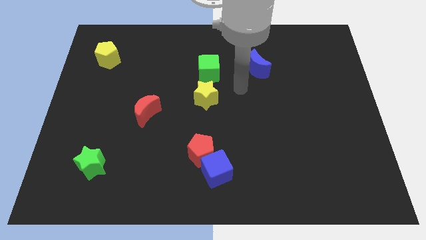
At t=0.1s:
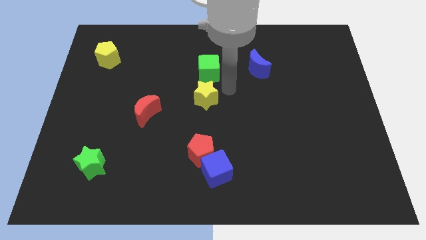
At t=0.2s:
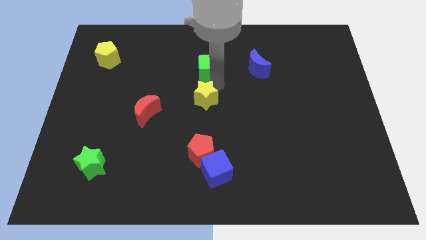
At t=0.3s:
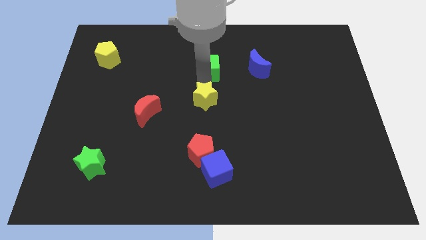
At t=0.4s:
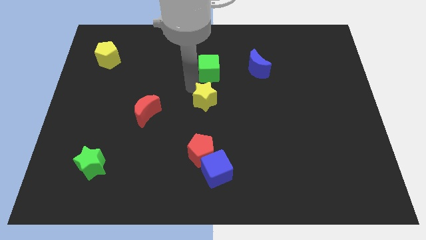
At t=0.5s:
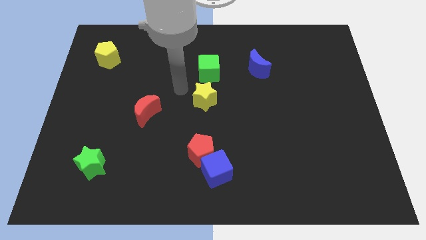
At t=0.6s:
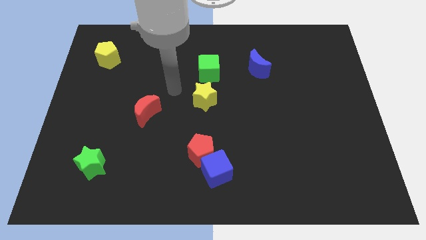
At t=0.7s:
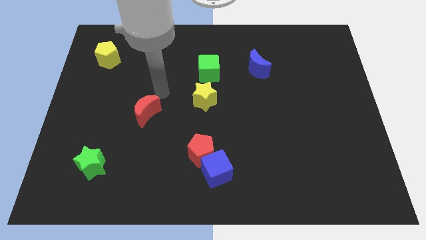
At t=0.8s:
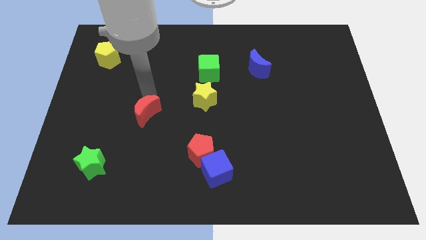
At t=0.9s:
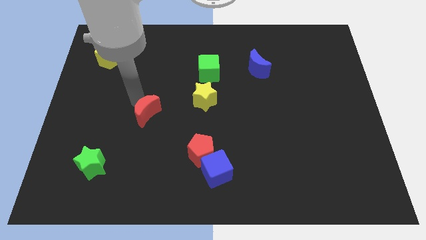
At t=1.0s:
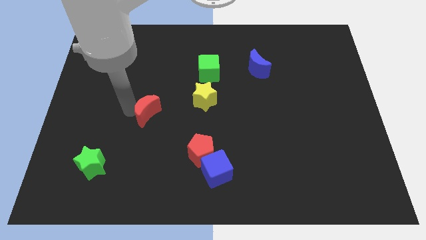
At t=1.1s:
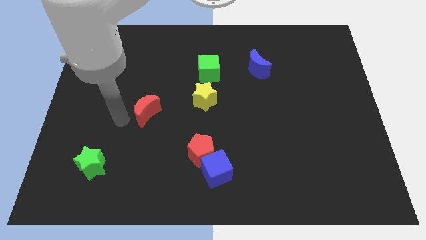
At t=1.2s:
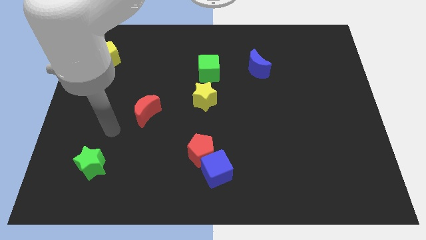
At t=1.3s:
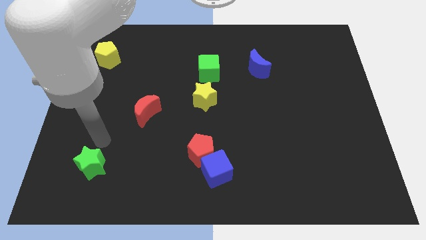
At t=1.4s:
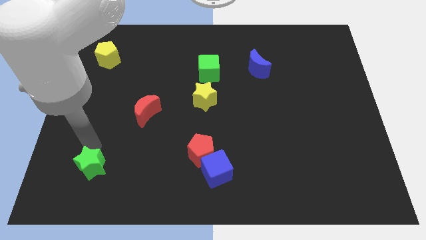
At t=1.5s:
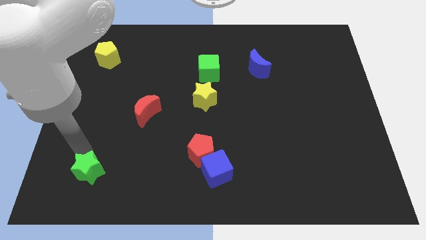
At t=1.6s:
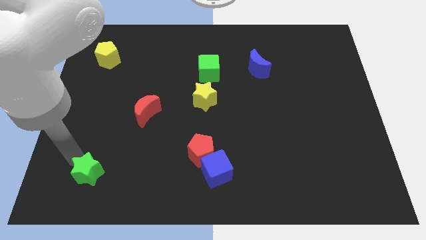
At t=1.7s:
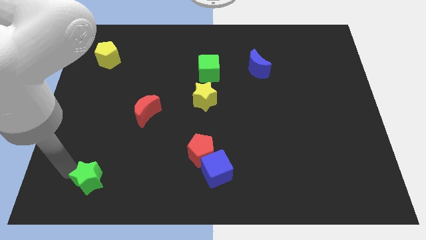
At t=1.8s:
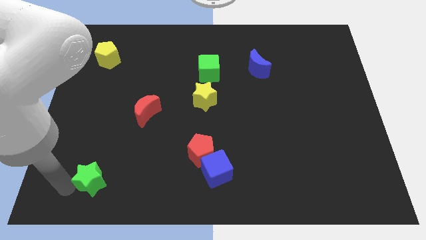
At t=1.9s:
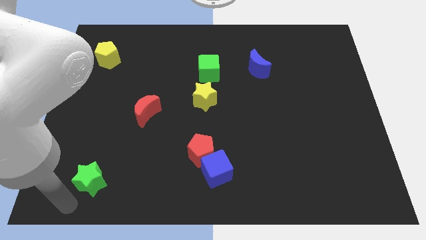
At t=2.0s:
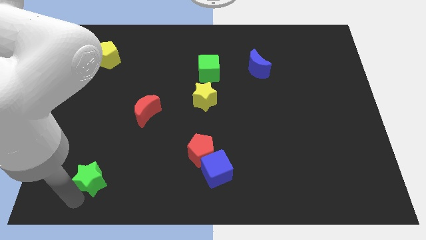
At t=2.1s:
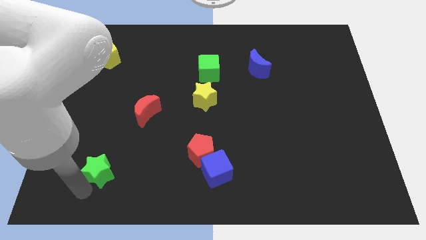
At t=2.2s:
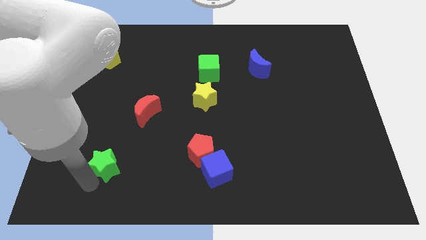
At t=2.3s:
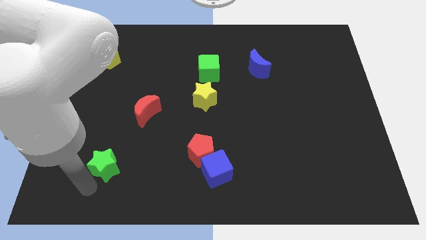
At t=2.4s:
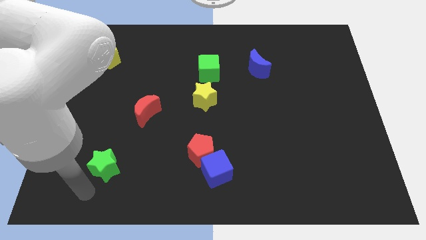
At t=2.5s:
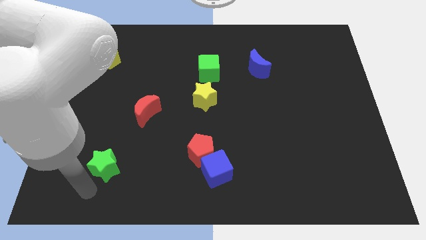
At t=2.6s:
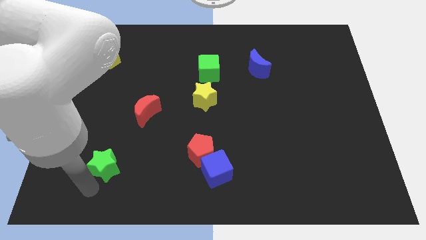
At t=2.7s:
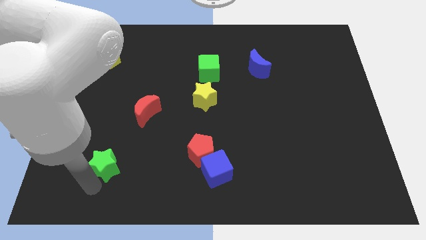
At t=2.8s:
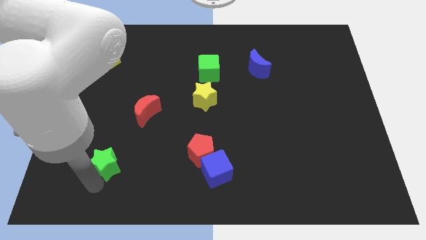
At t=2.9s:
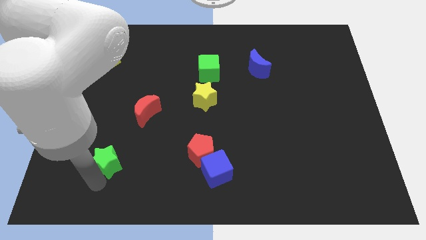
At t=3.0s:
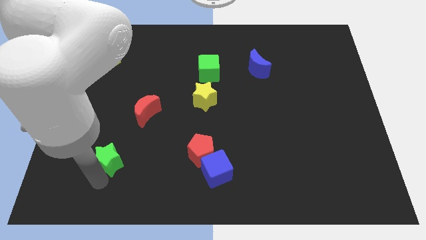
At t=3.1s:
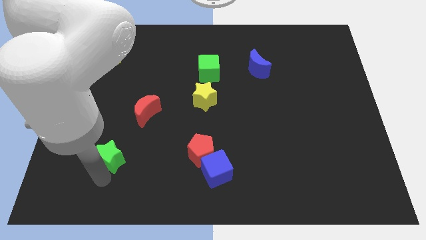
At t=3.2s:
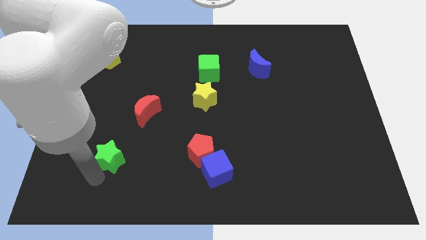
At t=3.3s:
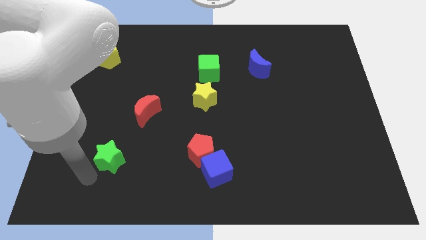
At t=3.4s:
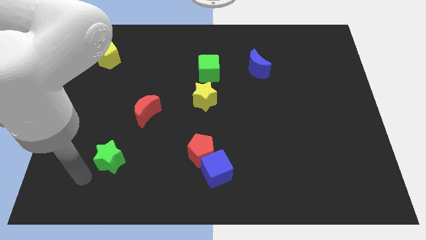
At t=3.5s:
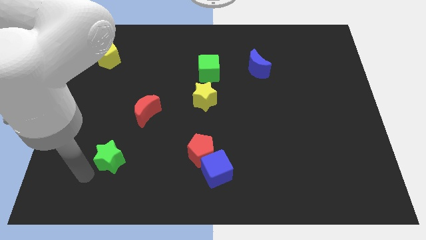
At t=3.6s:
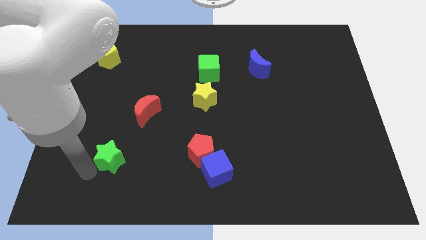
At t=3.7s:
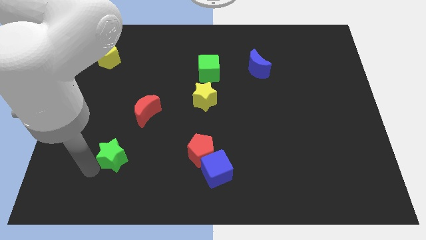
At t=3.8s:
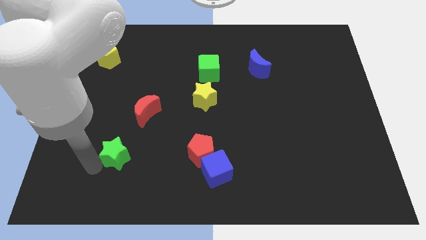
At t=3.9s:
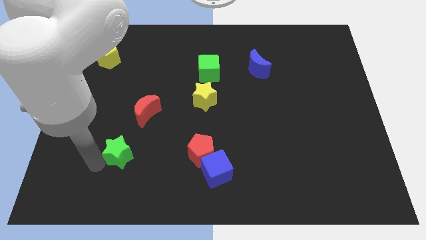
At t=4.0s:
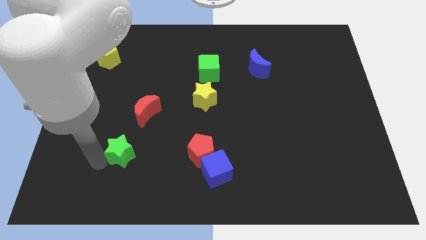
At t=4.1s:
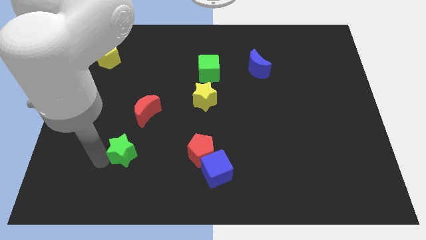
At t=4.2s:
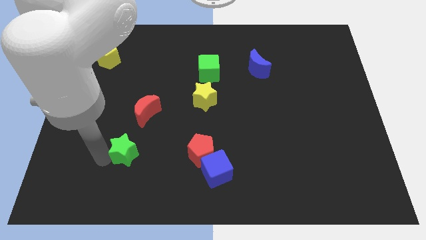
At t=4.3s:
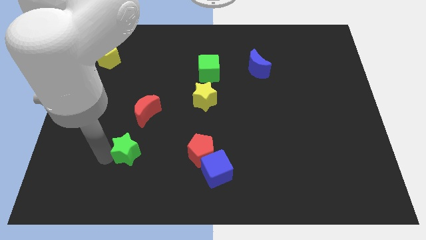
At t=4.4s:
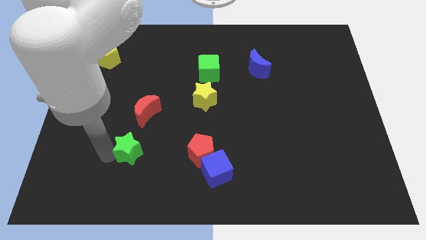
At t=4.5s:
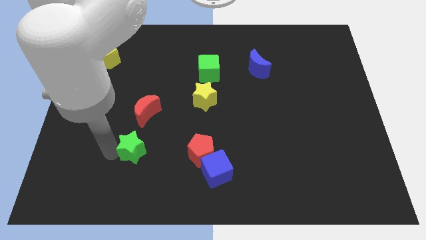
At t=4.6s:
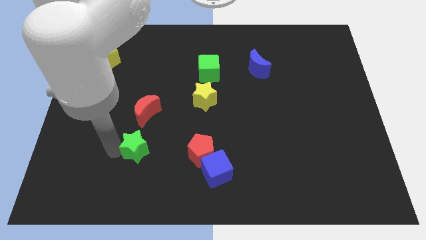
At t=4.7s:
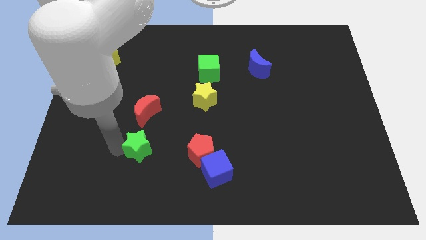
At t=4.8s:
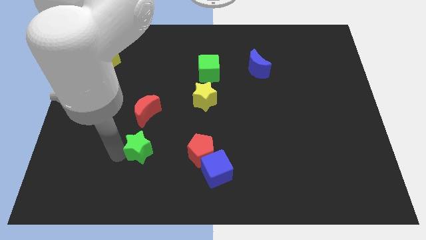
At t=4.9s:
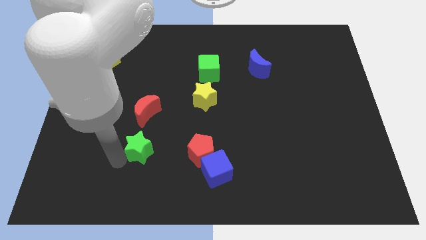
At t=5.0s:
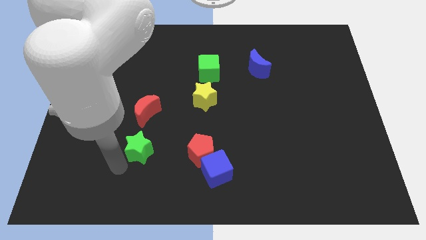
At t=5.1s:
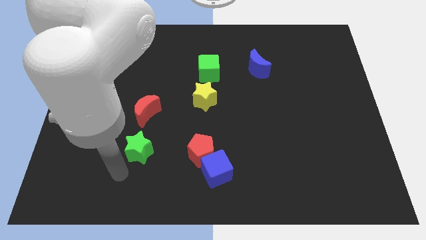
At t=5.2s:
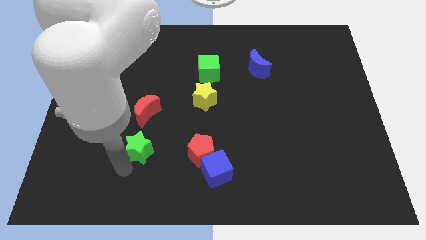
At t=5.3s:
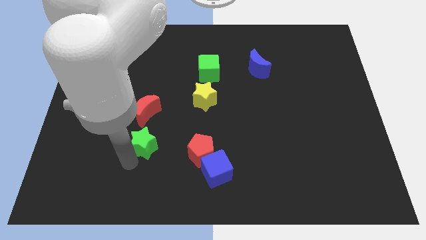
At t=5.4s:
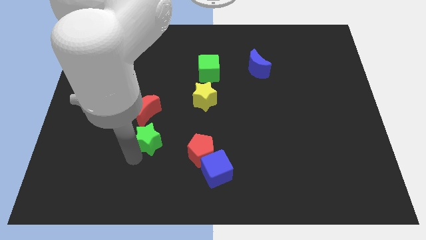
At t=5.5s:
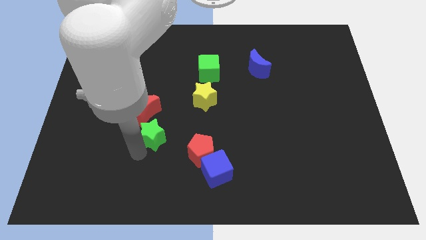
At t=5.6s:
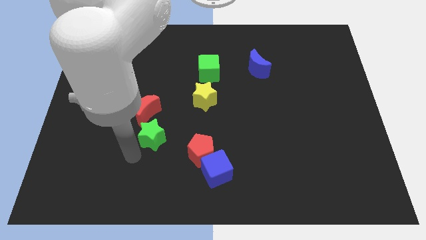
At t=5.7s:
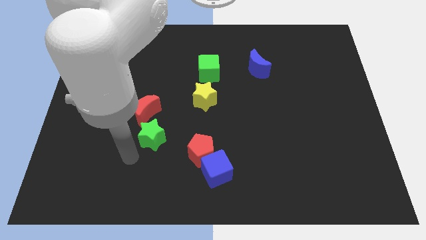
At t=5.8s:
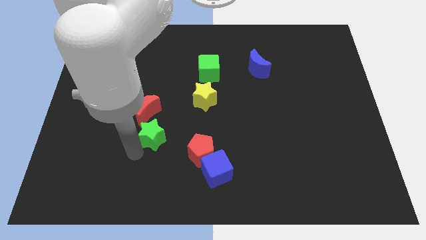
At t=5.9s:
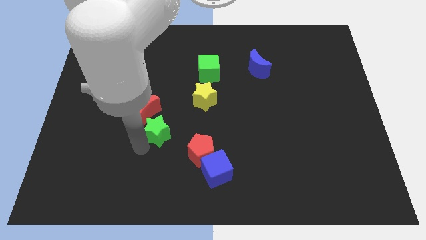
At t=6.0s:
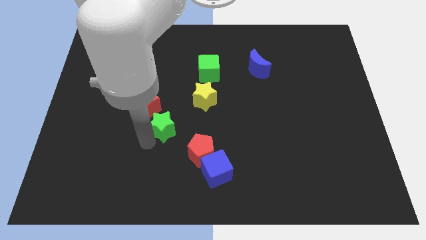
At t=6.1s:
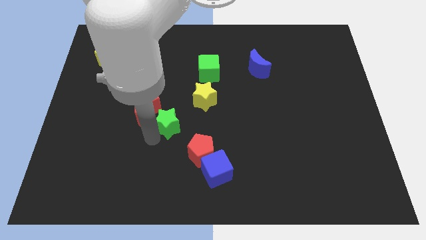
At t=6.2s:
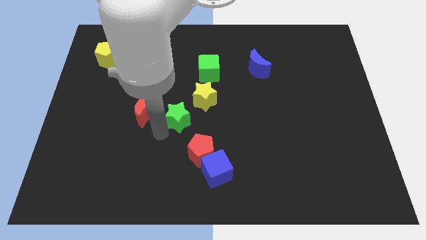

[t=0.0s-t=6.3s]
move the green star diagonally upwards and right

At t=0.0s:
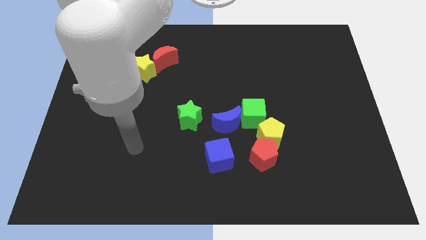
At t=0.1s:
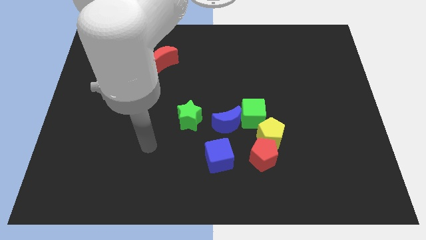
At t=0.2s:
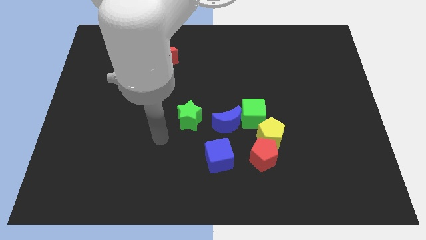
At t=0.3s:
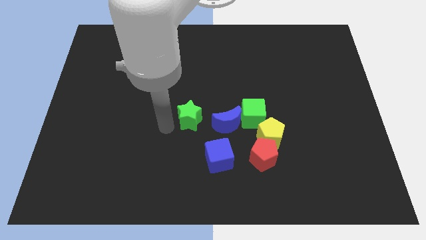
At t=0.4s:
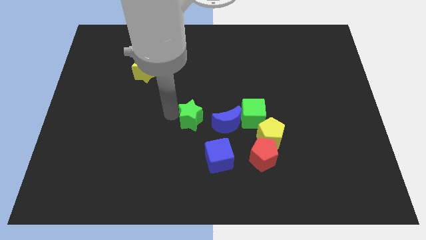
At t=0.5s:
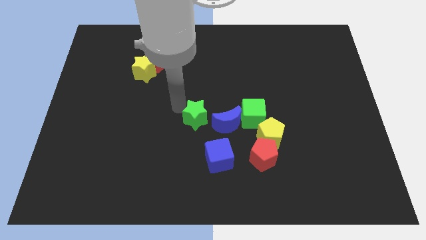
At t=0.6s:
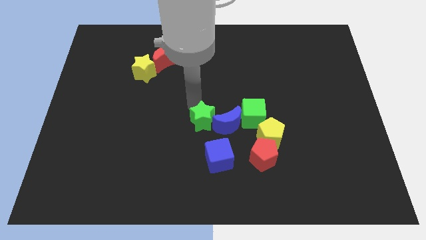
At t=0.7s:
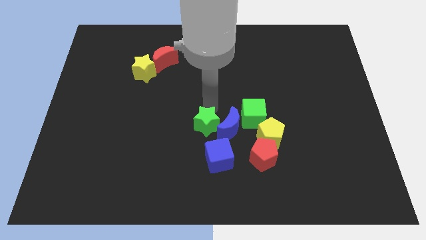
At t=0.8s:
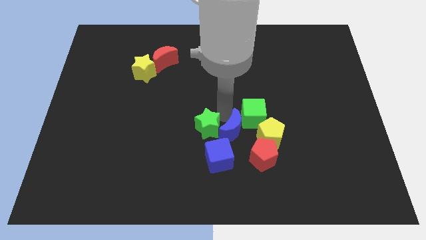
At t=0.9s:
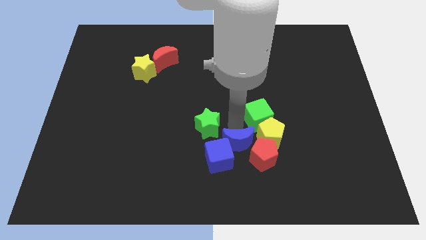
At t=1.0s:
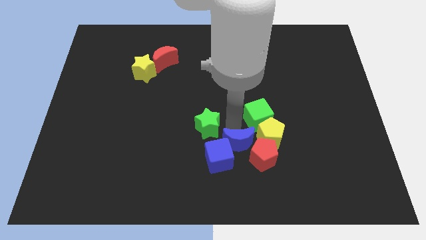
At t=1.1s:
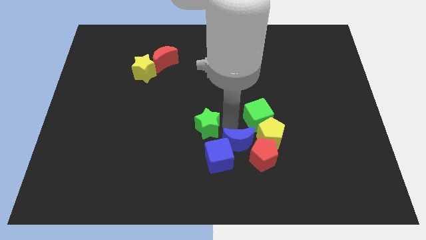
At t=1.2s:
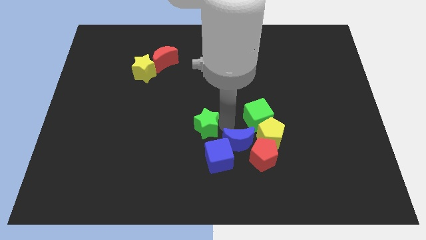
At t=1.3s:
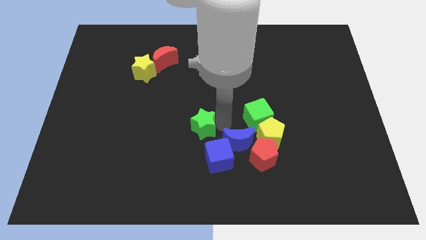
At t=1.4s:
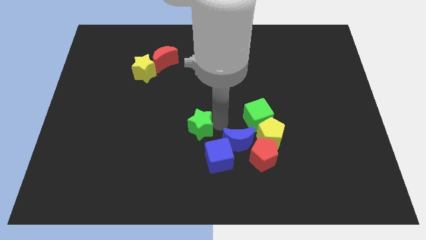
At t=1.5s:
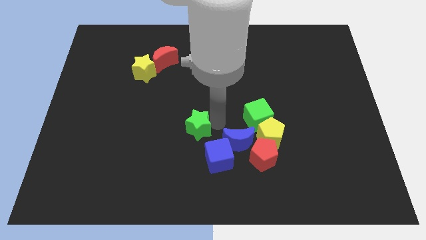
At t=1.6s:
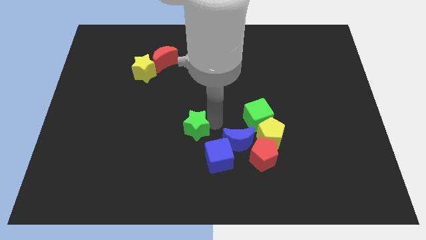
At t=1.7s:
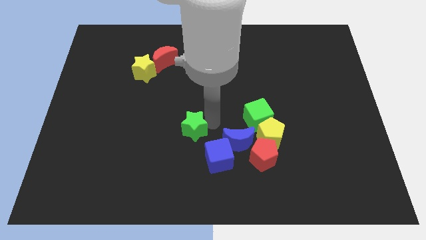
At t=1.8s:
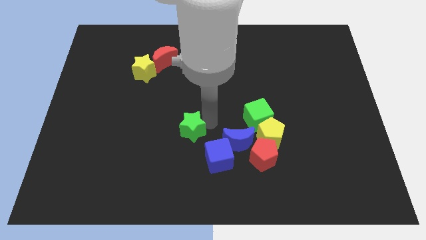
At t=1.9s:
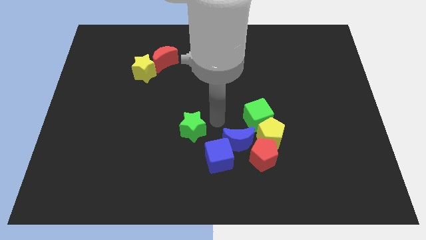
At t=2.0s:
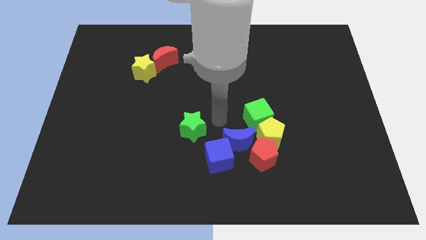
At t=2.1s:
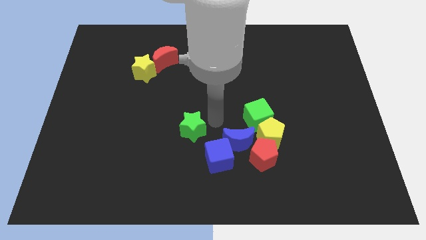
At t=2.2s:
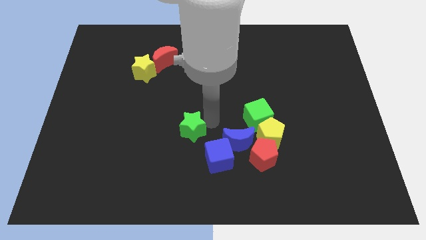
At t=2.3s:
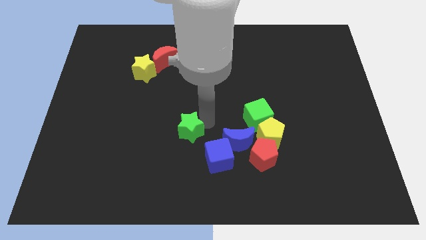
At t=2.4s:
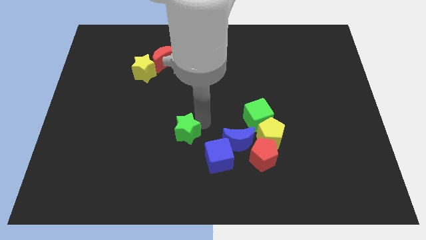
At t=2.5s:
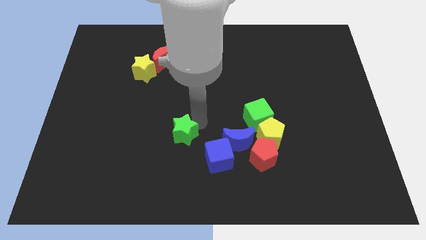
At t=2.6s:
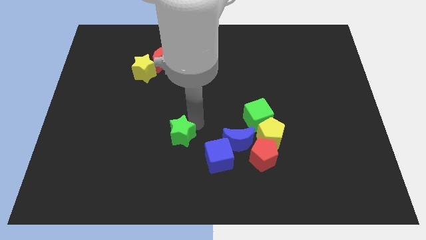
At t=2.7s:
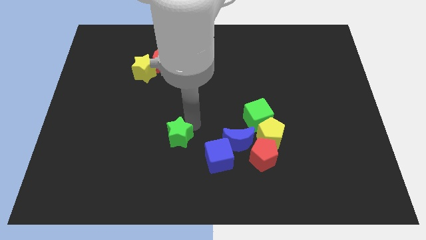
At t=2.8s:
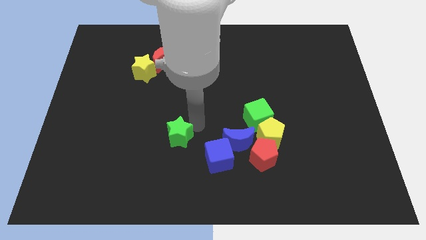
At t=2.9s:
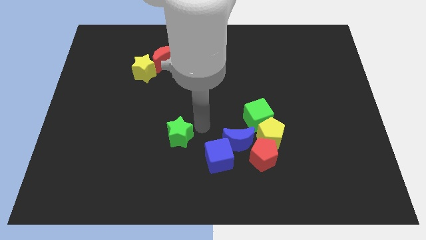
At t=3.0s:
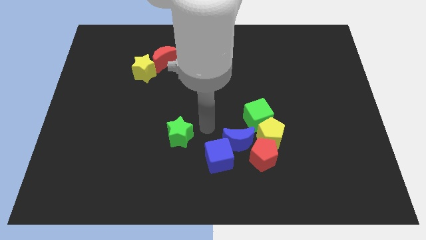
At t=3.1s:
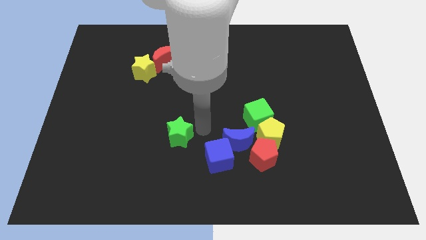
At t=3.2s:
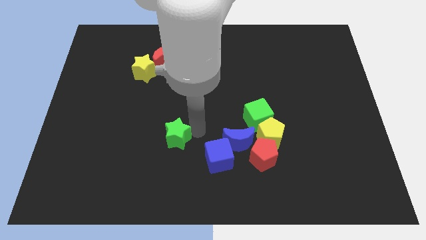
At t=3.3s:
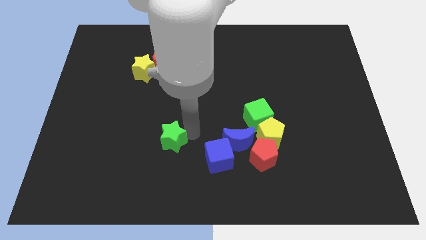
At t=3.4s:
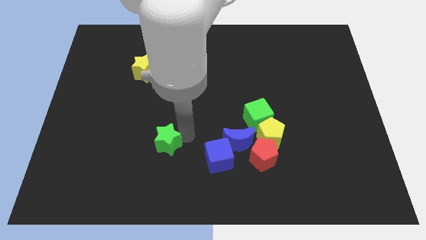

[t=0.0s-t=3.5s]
slide the green star a little bit down and to the left diagonally
